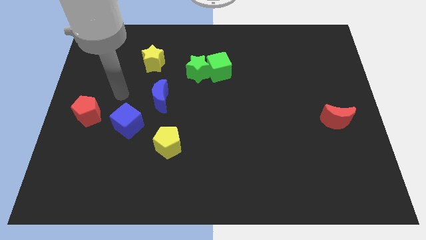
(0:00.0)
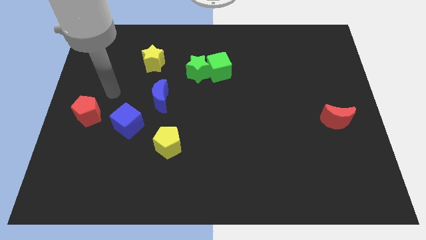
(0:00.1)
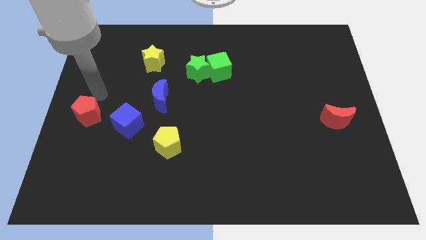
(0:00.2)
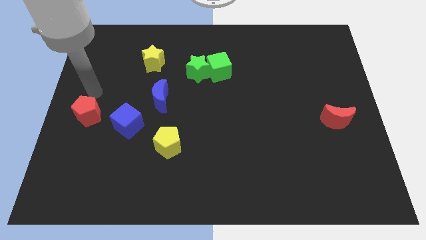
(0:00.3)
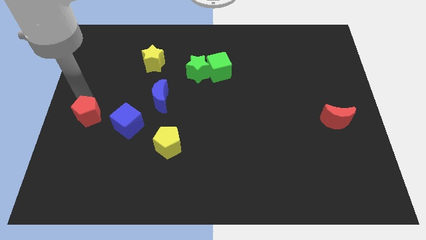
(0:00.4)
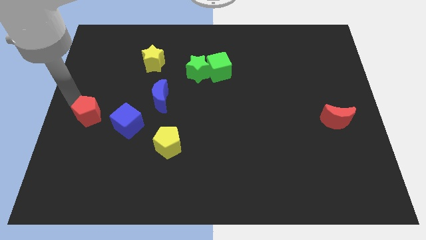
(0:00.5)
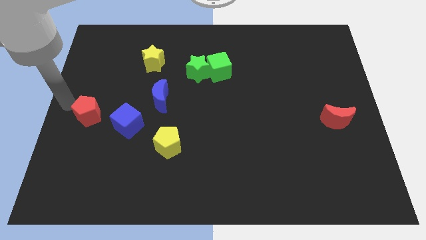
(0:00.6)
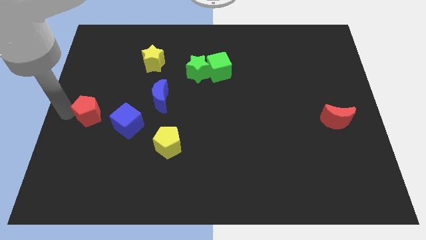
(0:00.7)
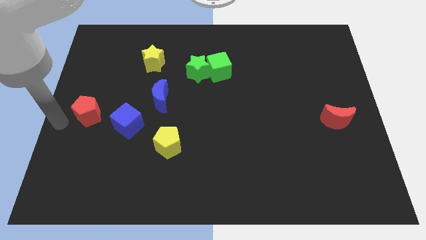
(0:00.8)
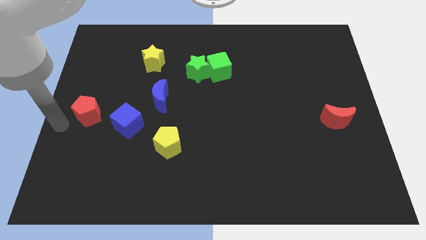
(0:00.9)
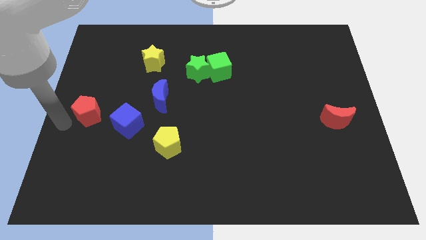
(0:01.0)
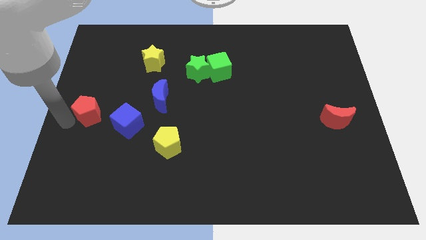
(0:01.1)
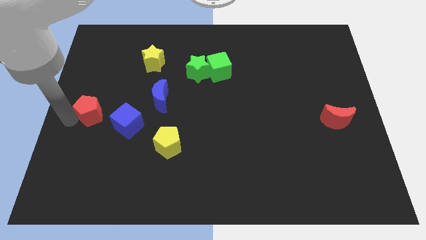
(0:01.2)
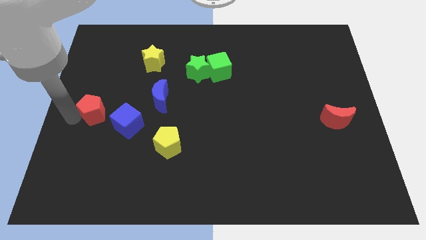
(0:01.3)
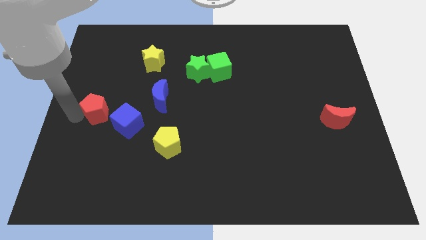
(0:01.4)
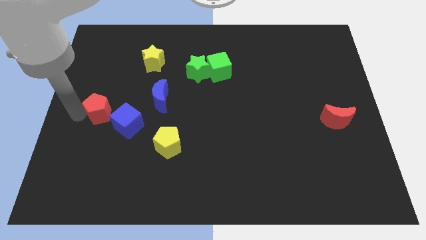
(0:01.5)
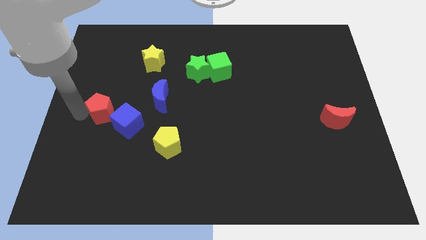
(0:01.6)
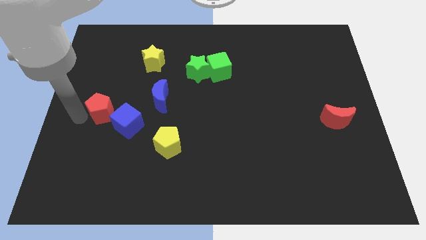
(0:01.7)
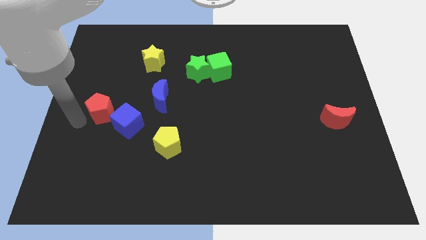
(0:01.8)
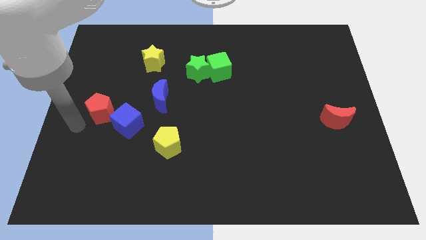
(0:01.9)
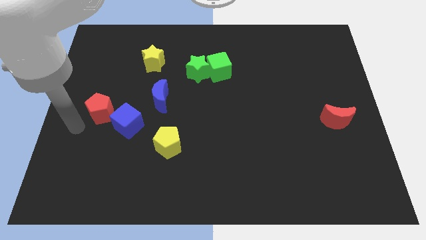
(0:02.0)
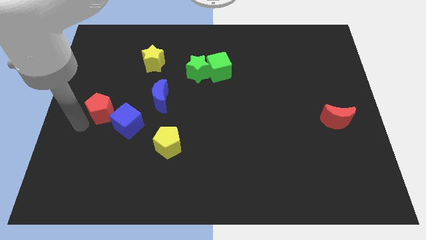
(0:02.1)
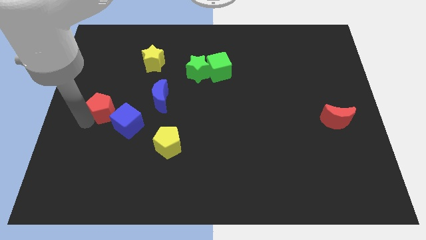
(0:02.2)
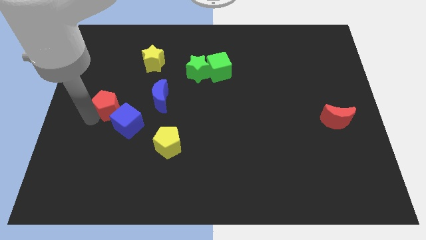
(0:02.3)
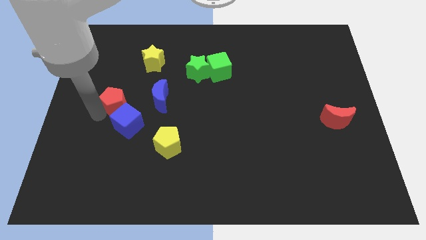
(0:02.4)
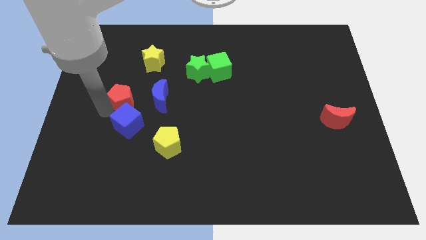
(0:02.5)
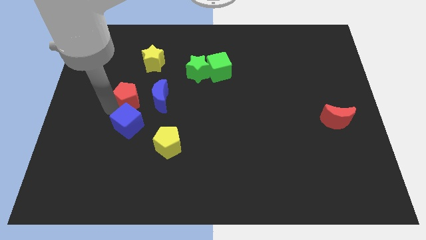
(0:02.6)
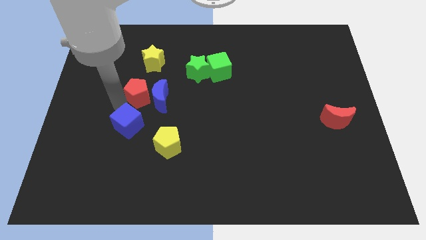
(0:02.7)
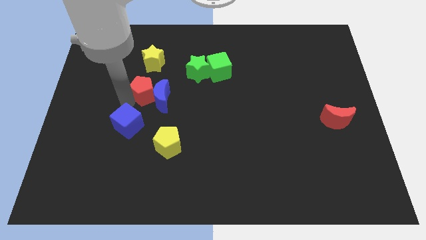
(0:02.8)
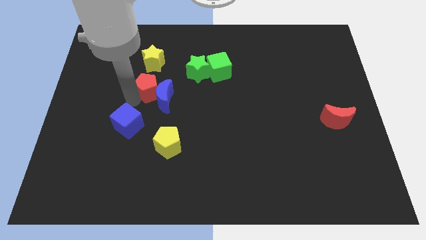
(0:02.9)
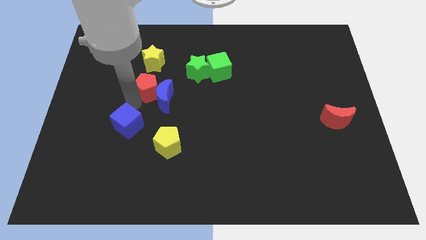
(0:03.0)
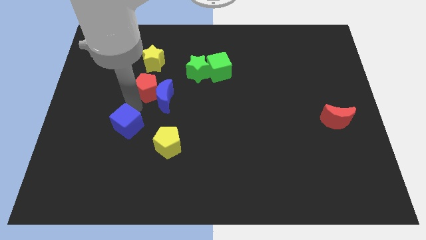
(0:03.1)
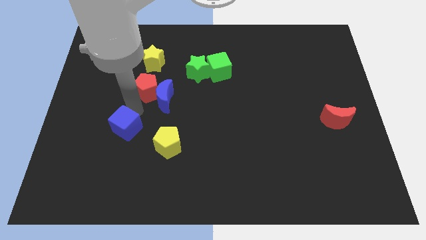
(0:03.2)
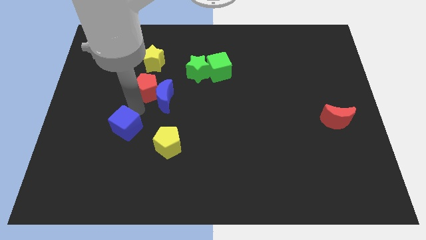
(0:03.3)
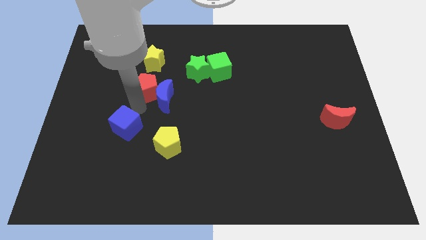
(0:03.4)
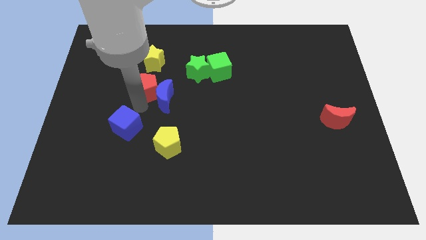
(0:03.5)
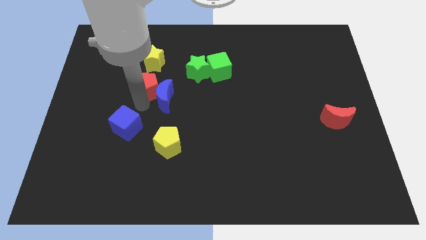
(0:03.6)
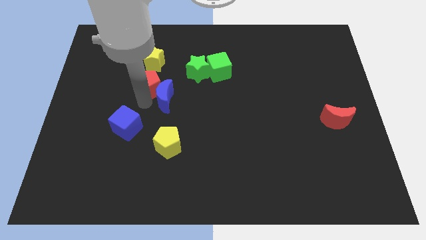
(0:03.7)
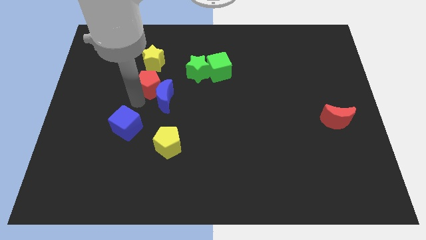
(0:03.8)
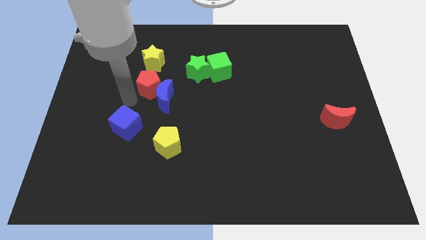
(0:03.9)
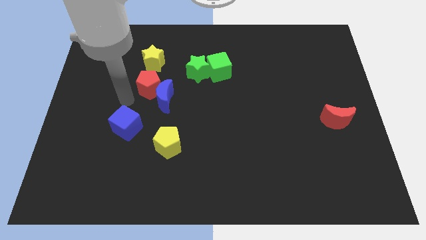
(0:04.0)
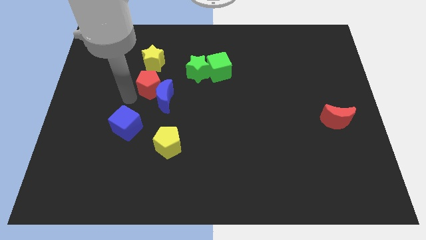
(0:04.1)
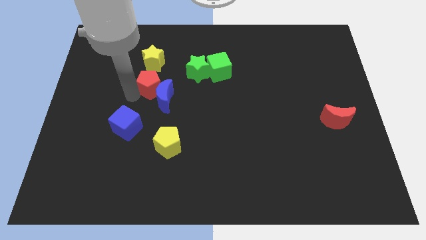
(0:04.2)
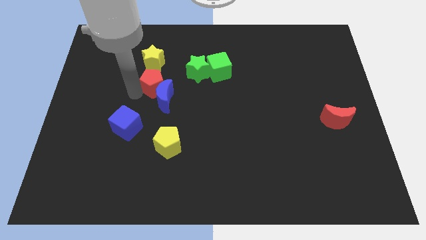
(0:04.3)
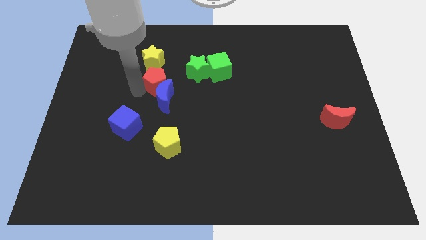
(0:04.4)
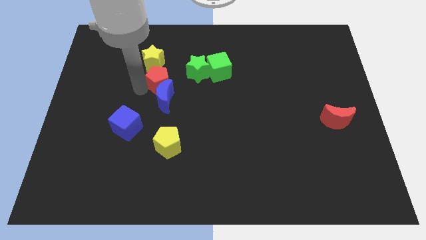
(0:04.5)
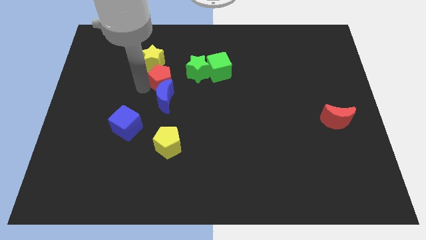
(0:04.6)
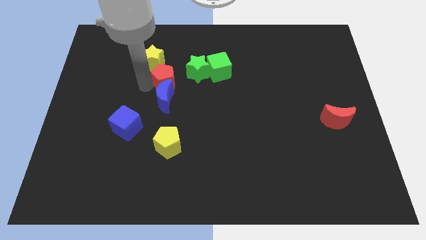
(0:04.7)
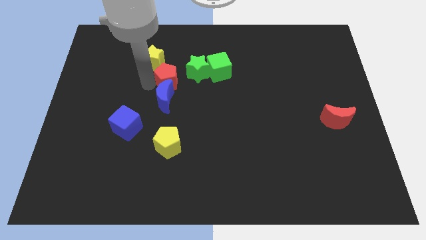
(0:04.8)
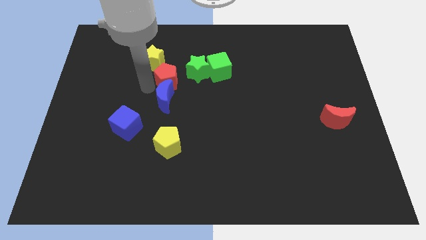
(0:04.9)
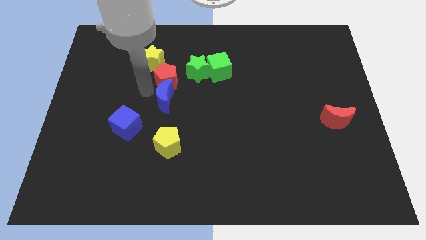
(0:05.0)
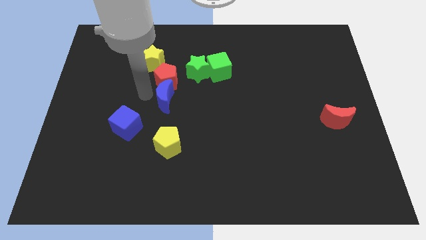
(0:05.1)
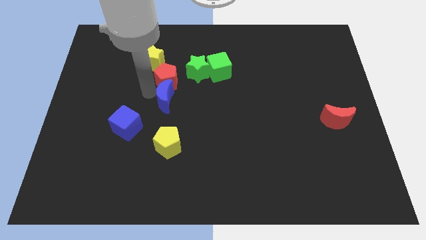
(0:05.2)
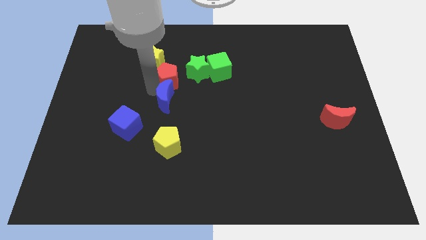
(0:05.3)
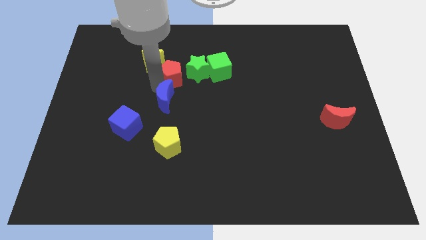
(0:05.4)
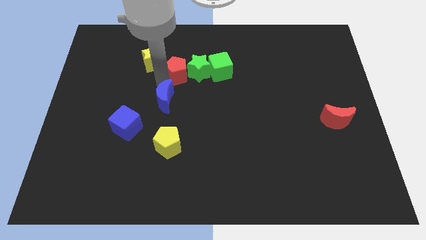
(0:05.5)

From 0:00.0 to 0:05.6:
slide the red pentagon to the green star
